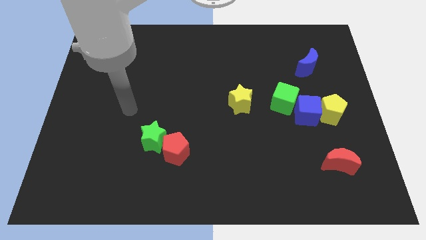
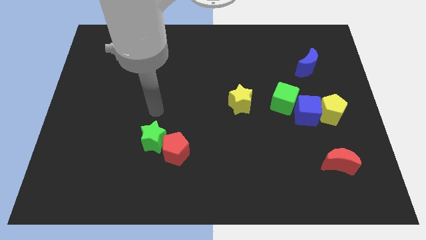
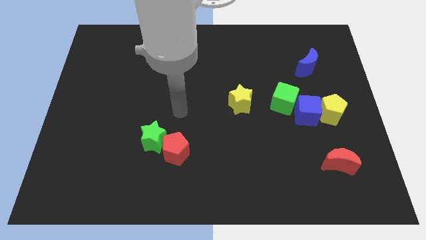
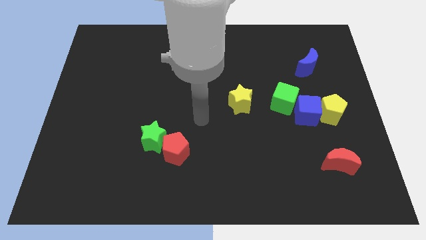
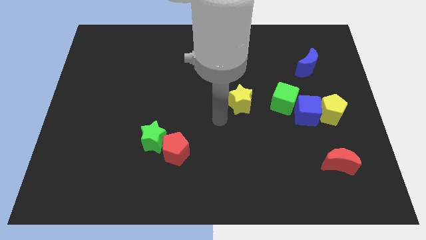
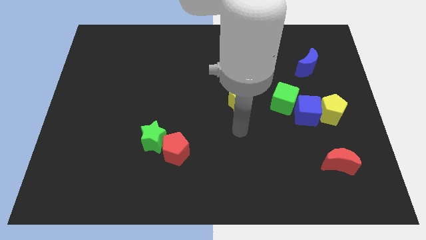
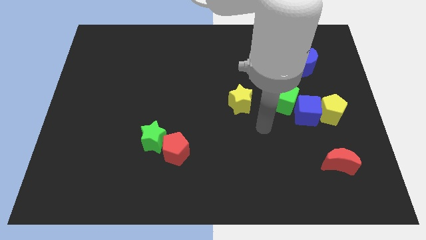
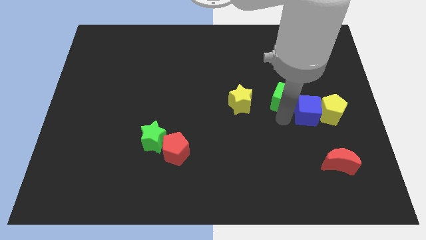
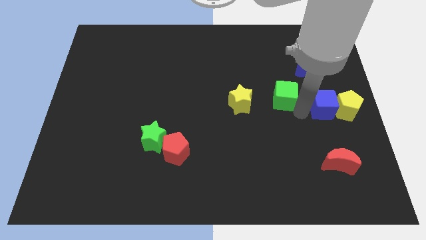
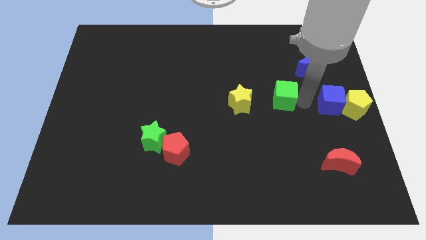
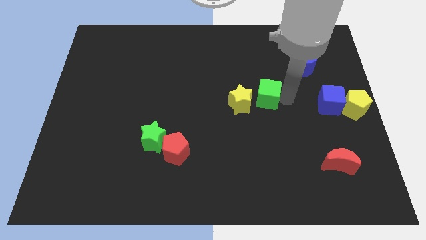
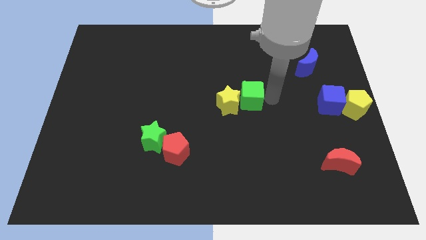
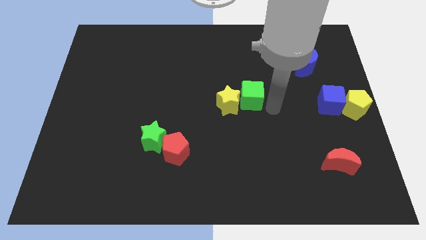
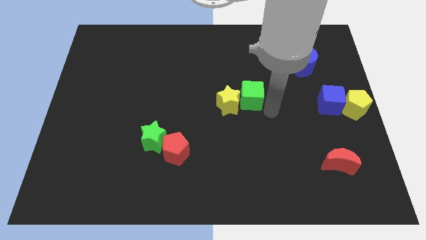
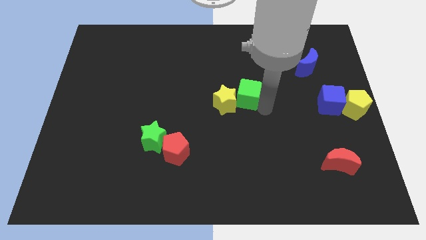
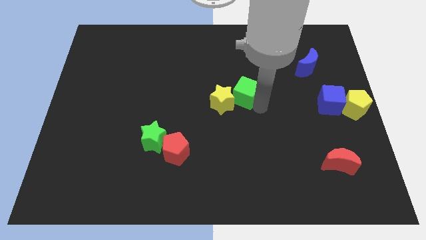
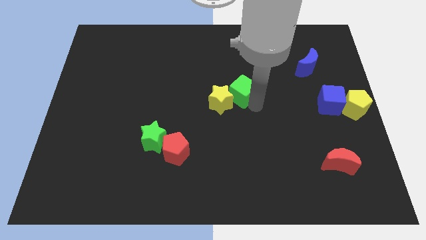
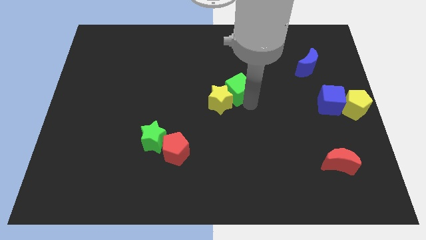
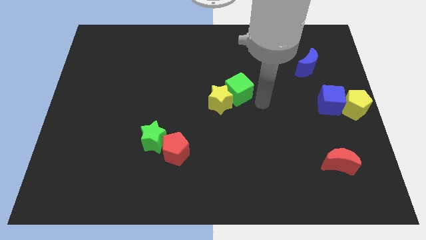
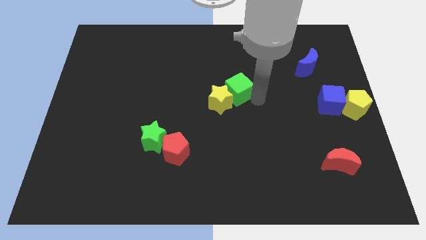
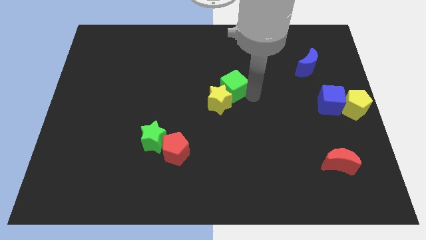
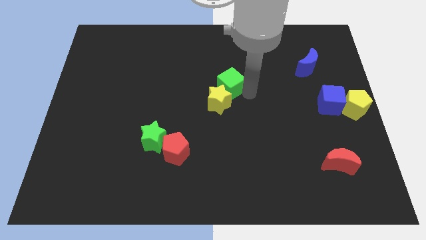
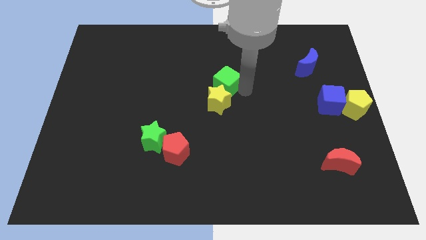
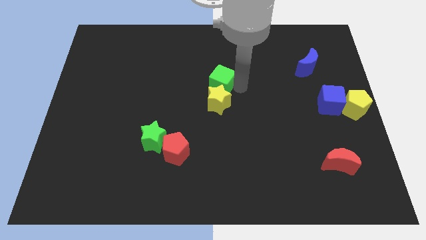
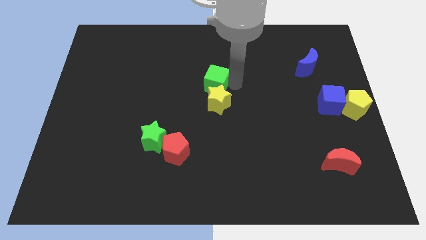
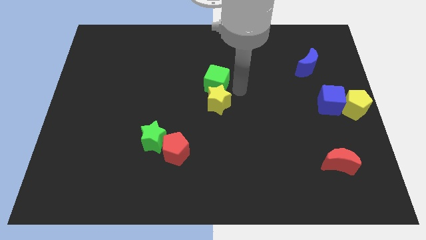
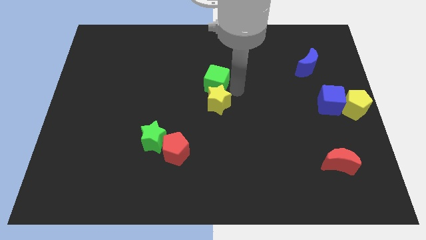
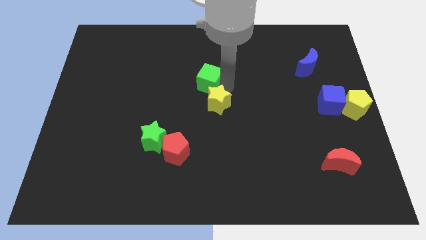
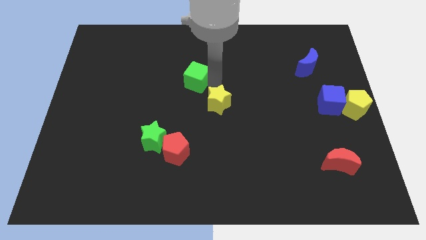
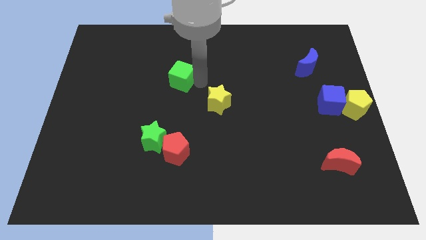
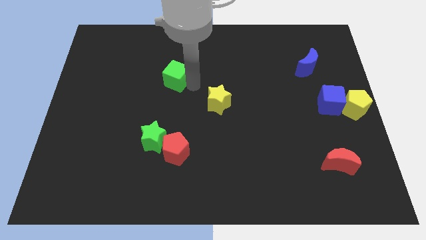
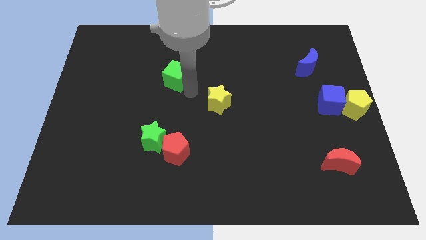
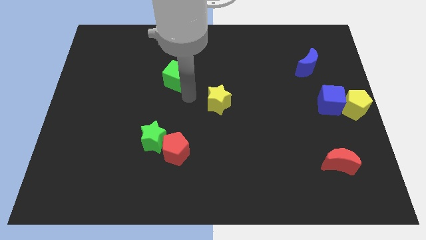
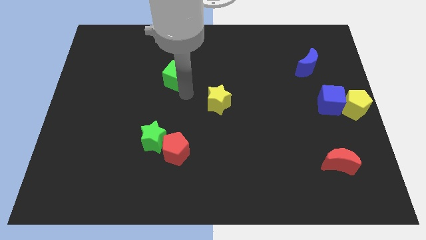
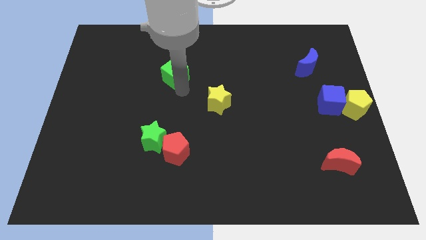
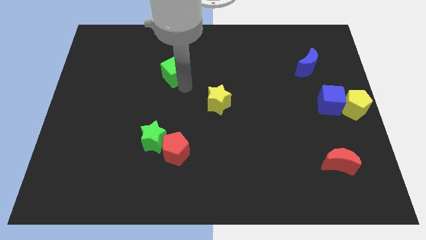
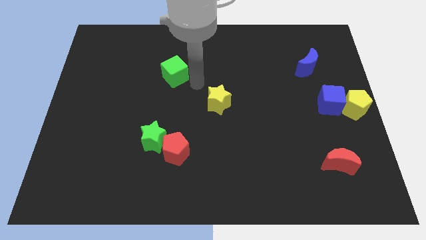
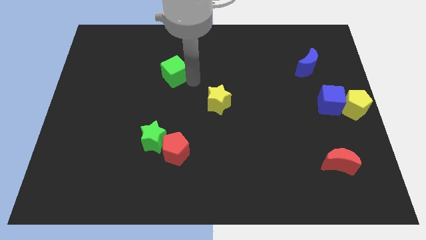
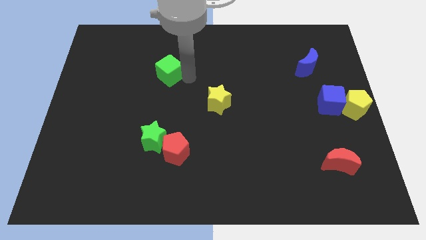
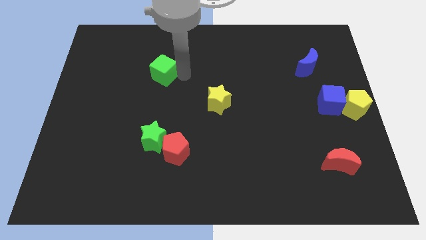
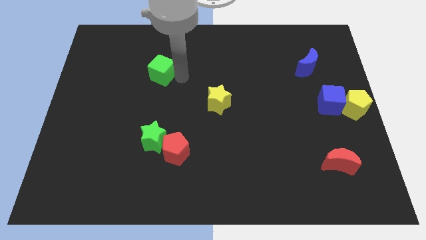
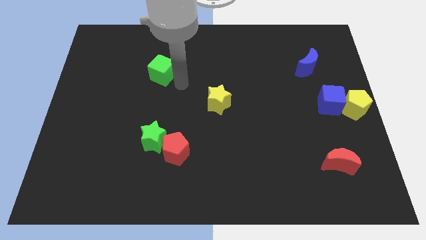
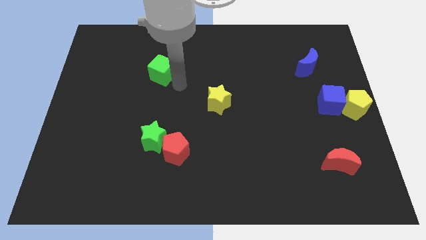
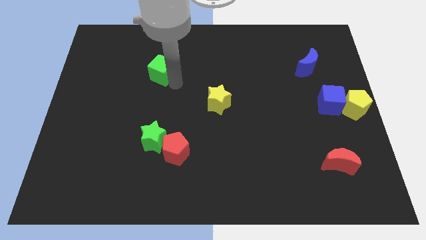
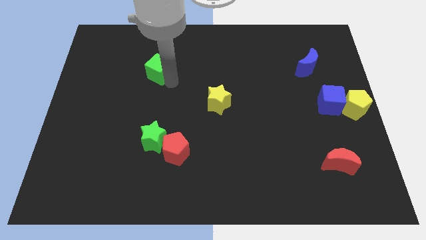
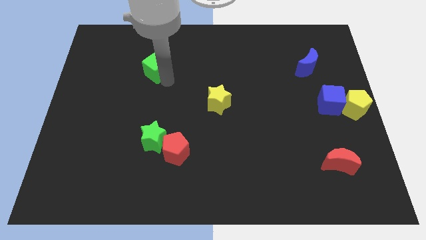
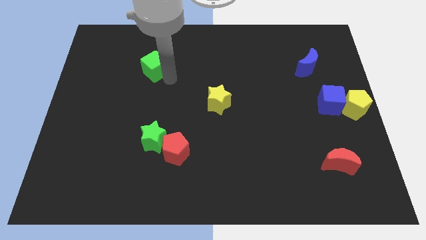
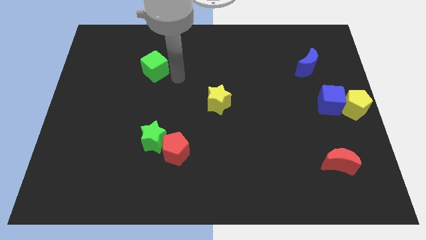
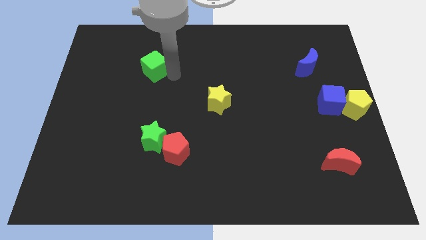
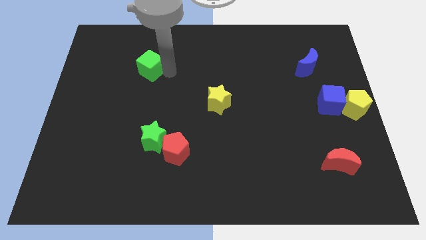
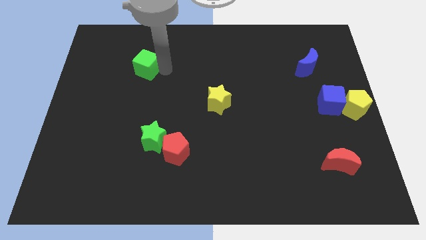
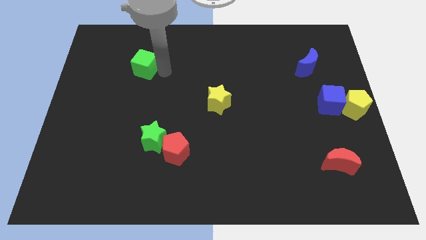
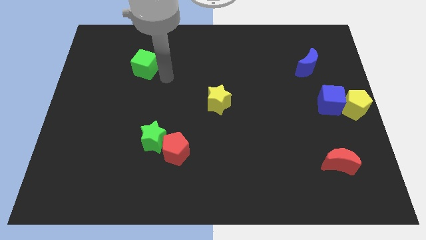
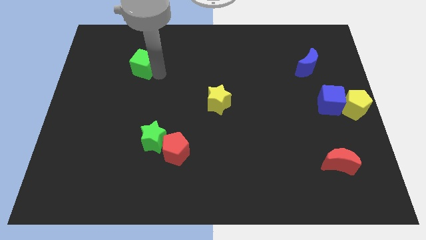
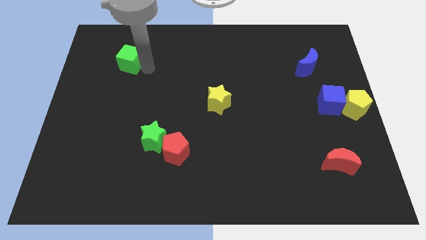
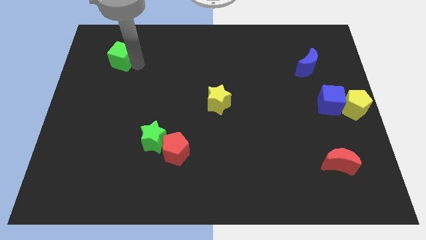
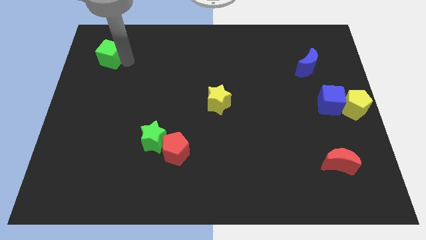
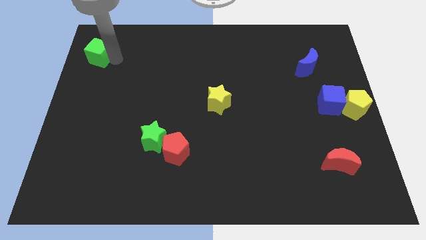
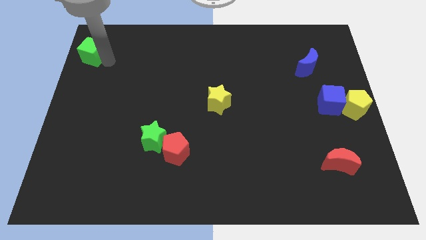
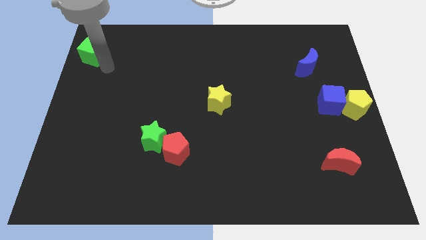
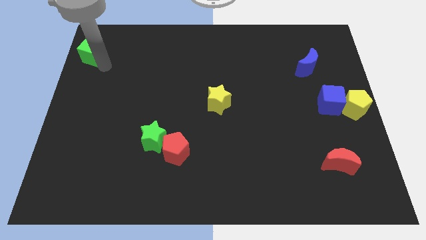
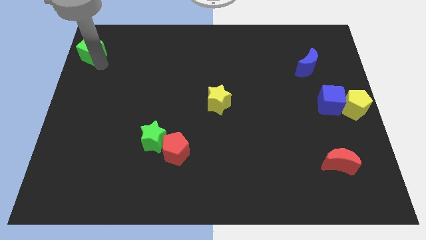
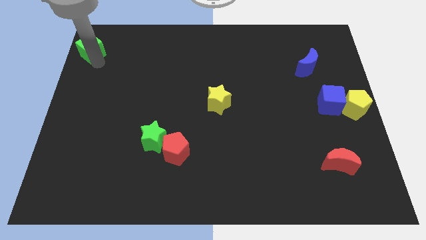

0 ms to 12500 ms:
put the green cube to the top left corner

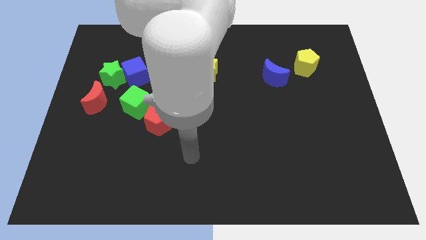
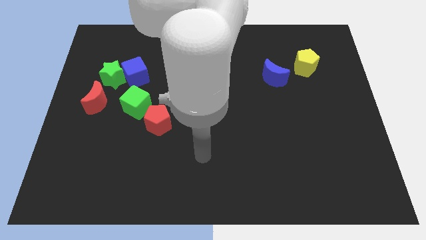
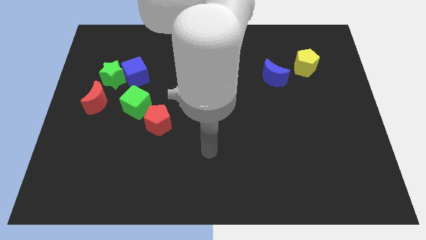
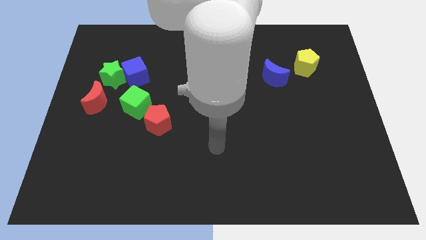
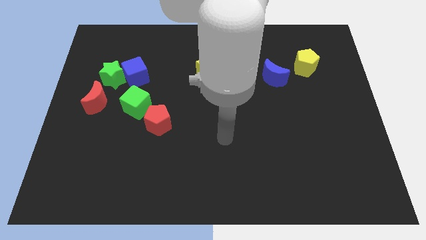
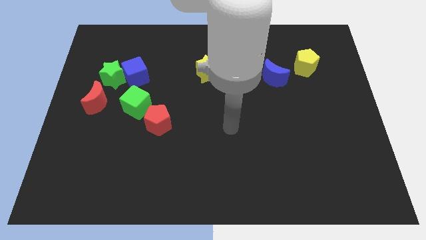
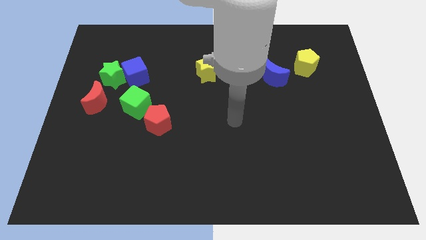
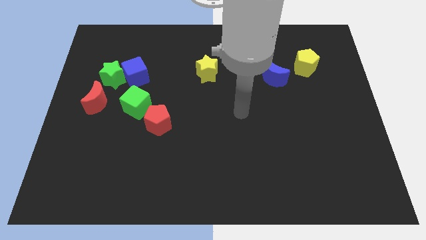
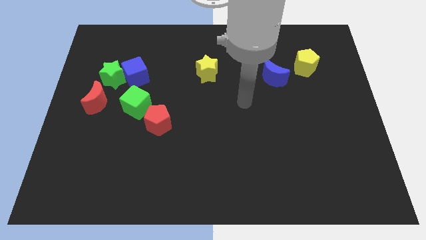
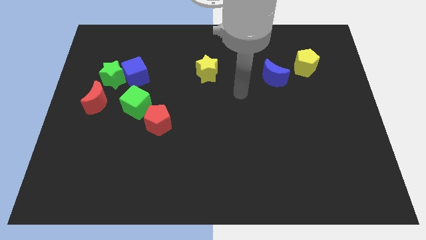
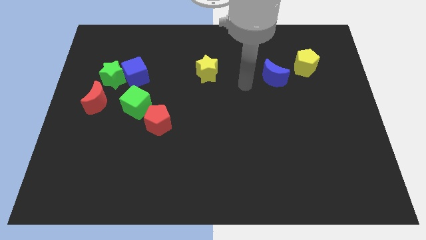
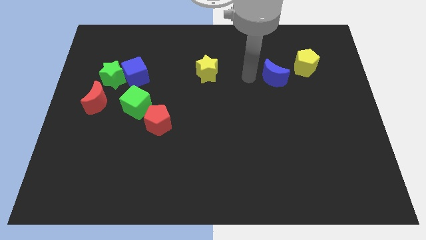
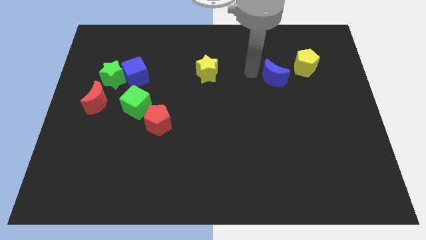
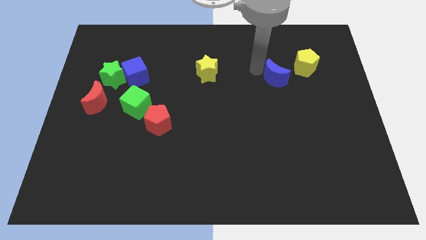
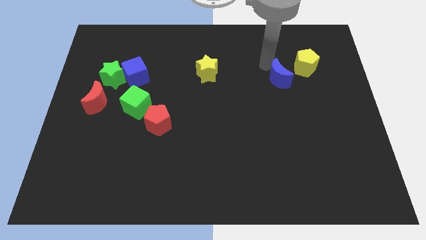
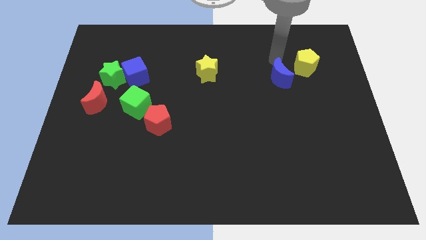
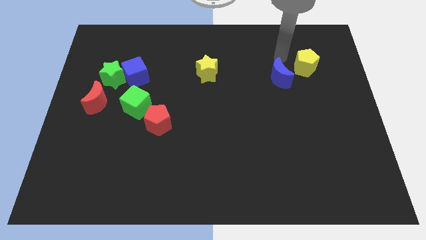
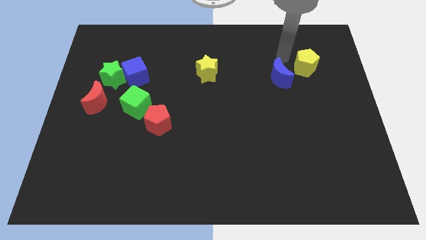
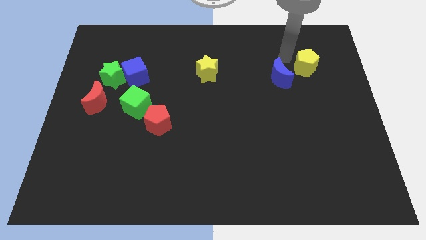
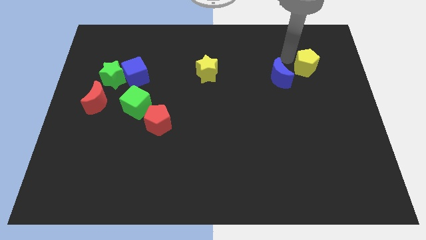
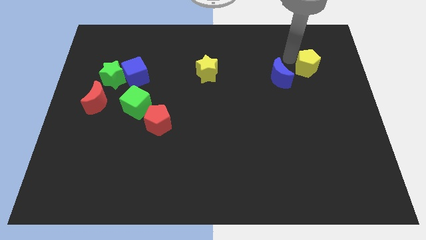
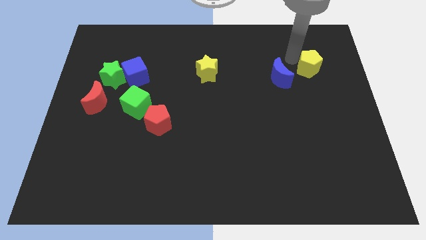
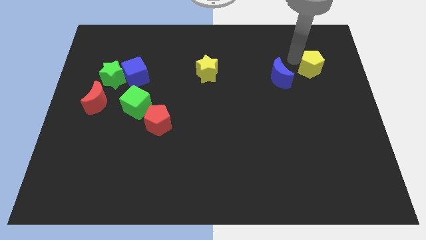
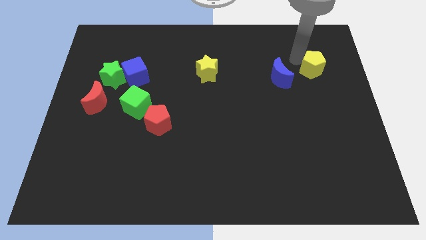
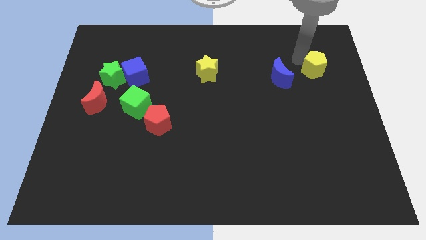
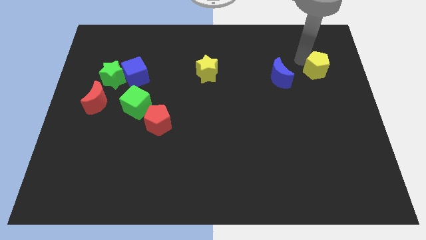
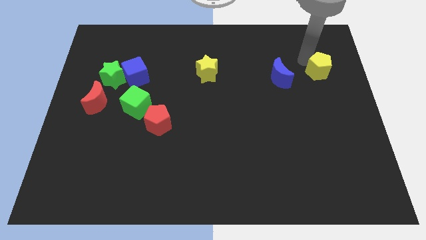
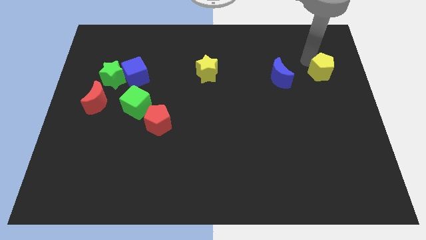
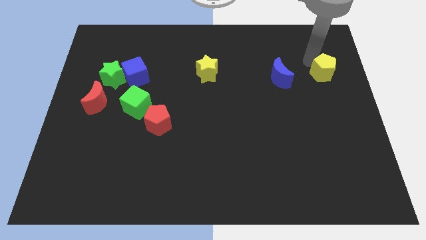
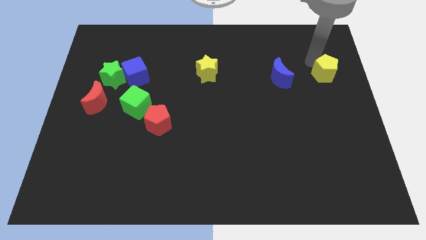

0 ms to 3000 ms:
push the yellow pentagon to the right side of the board
